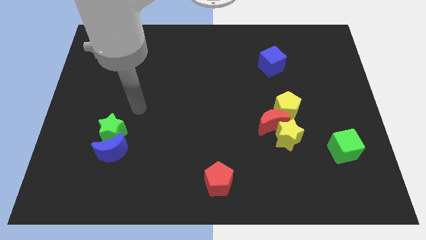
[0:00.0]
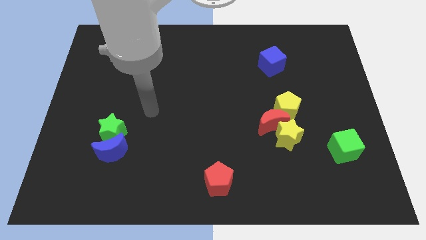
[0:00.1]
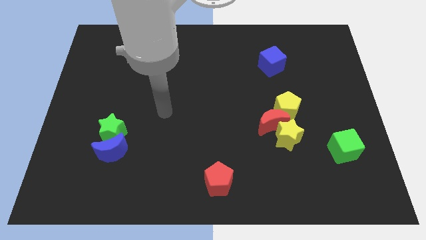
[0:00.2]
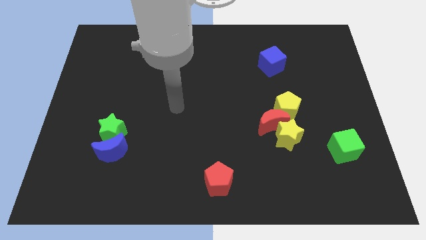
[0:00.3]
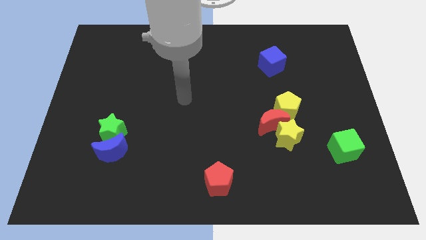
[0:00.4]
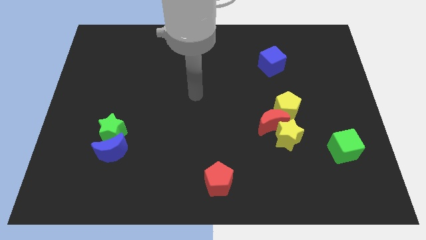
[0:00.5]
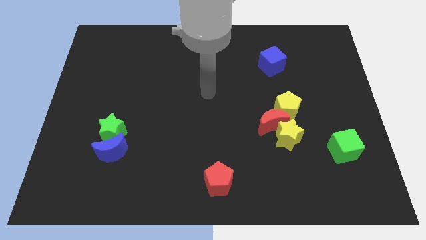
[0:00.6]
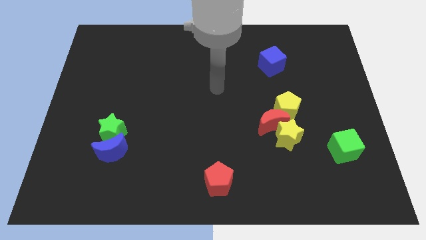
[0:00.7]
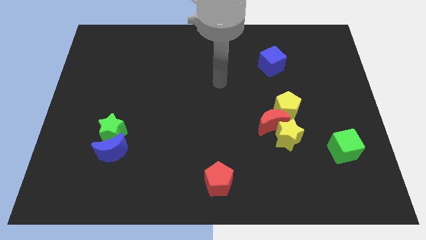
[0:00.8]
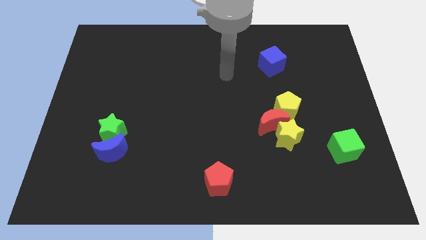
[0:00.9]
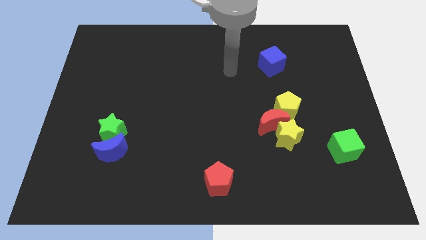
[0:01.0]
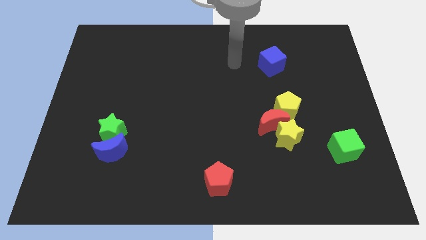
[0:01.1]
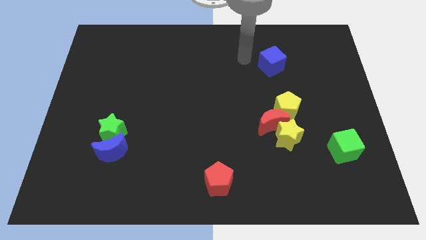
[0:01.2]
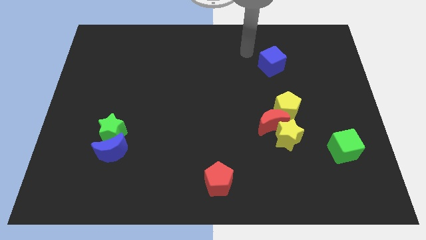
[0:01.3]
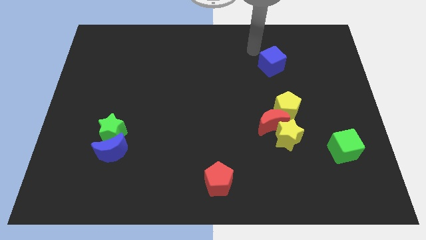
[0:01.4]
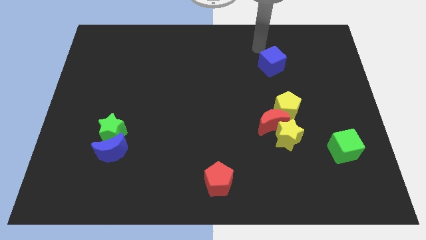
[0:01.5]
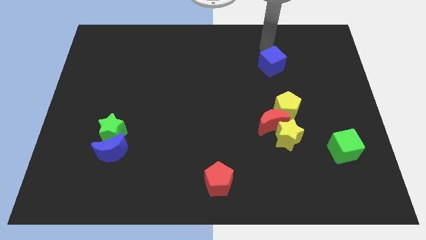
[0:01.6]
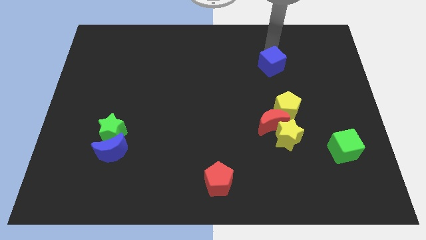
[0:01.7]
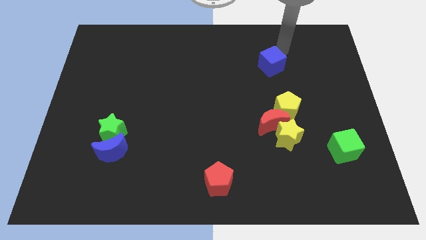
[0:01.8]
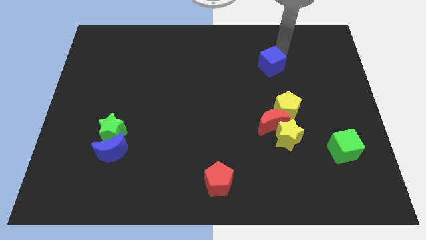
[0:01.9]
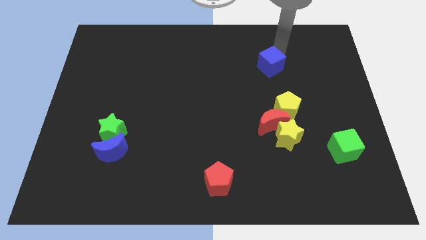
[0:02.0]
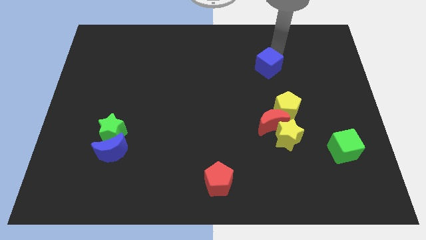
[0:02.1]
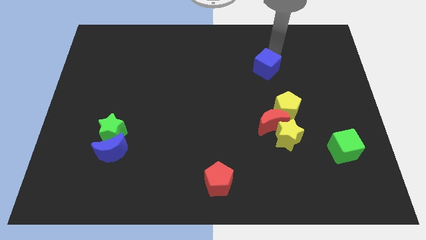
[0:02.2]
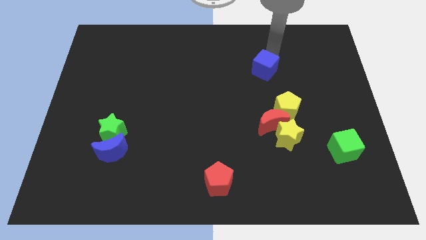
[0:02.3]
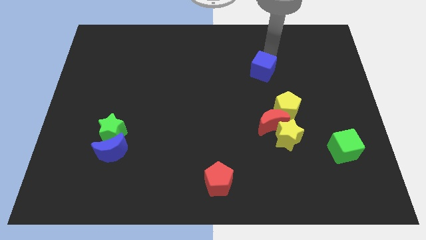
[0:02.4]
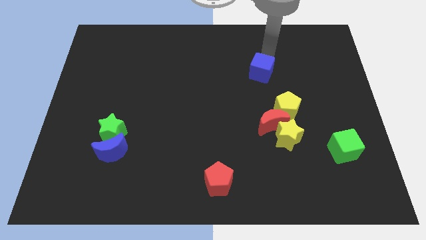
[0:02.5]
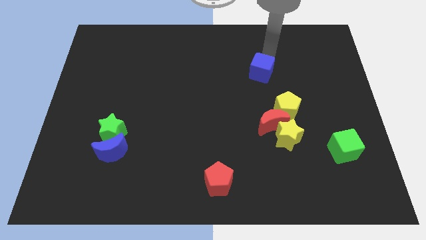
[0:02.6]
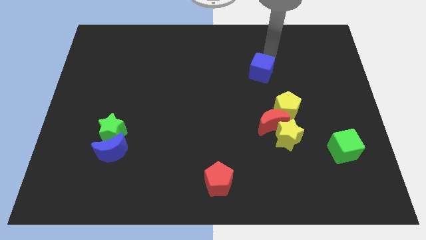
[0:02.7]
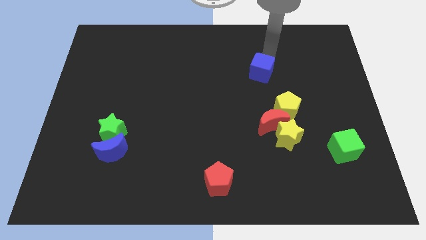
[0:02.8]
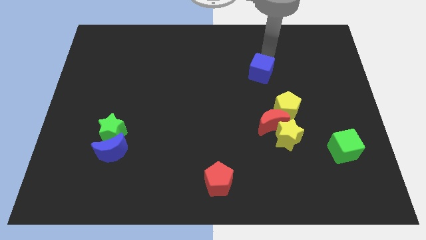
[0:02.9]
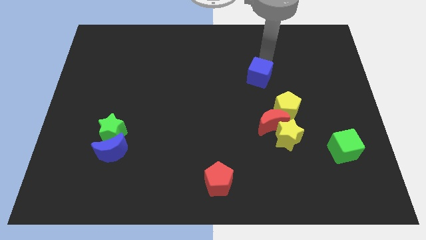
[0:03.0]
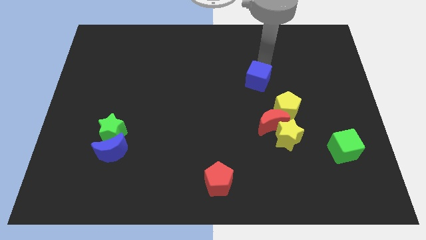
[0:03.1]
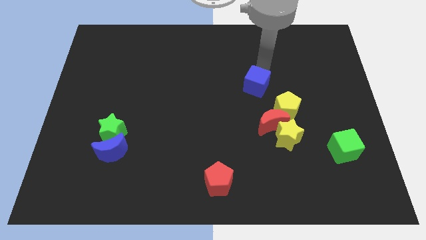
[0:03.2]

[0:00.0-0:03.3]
move the blue cube diagonally downwards and left somewhat

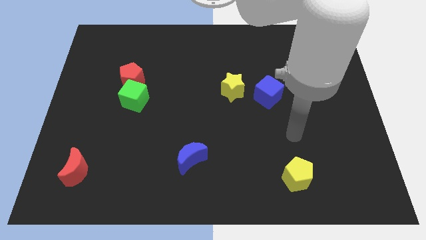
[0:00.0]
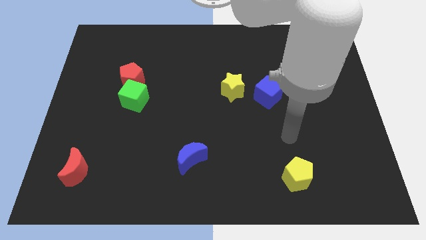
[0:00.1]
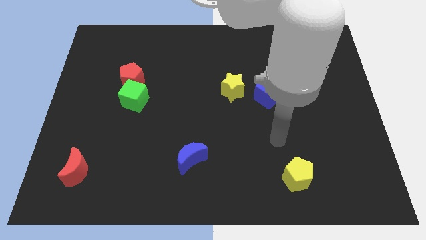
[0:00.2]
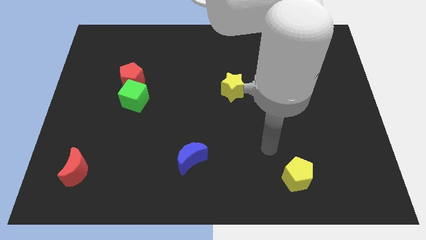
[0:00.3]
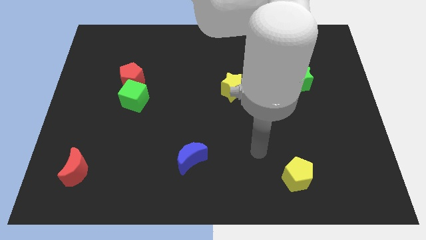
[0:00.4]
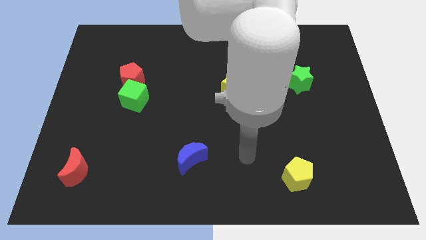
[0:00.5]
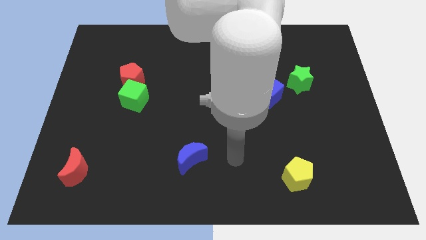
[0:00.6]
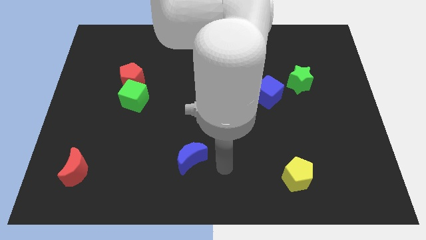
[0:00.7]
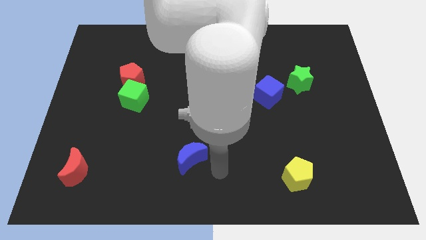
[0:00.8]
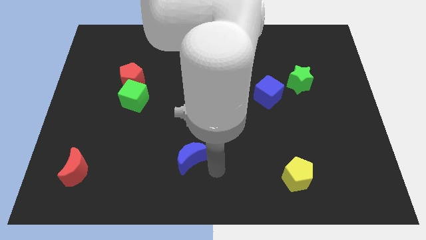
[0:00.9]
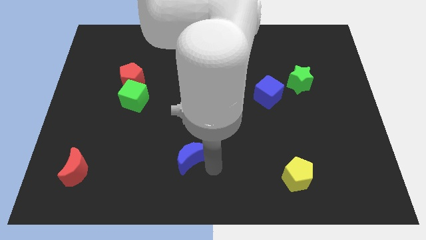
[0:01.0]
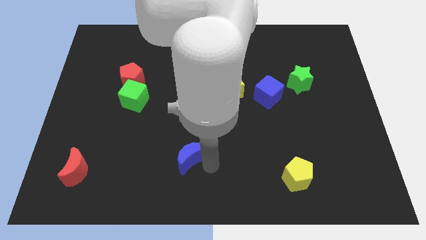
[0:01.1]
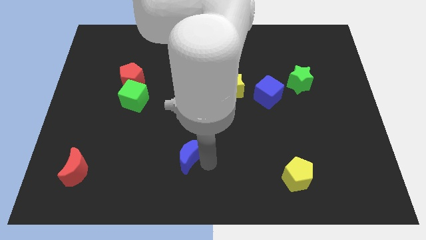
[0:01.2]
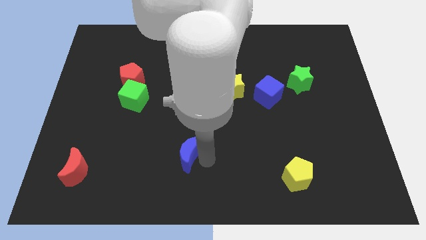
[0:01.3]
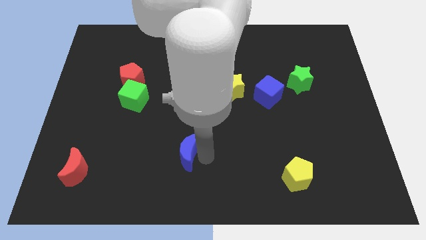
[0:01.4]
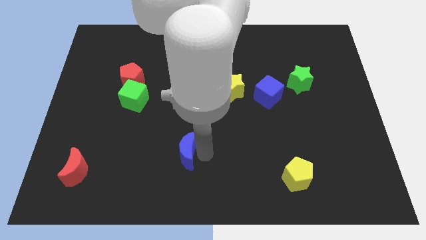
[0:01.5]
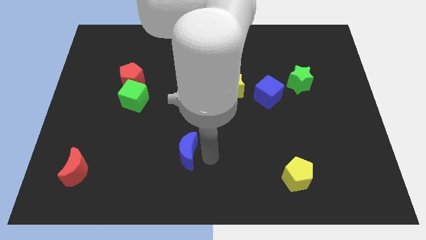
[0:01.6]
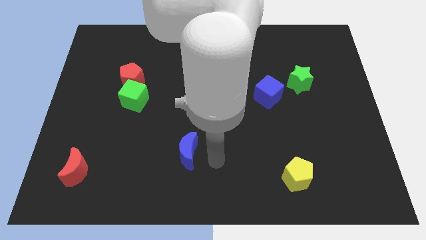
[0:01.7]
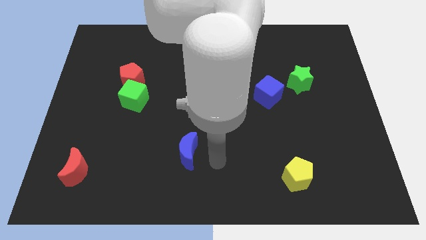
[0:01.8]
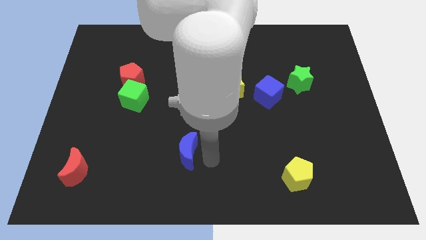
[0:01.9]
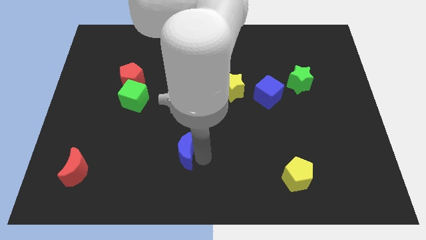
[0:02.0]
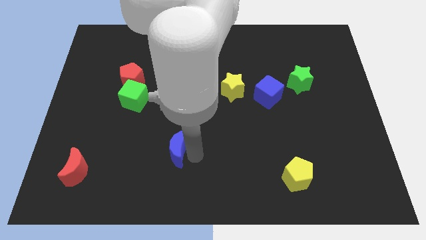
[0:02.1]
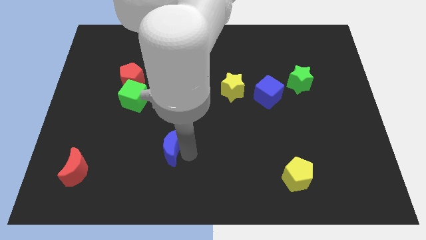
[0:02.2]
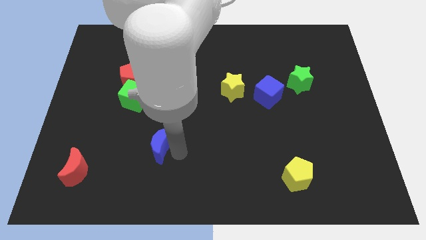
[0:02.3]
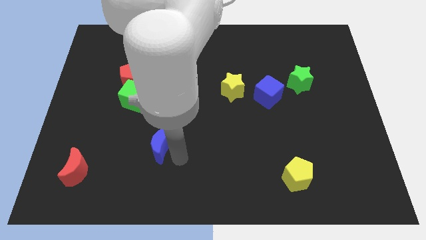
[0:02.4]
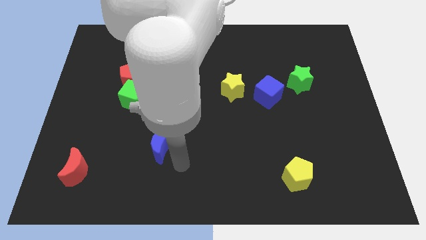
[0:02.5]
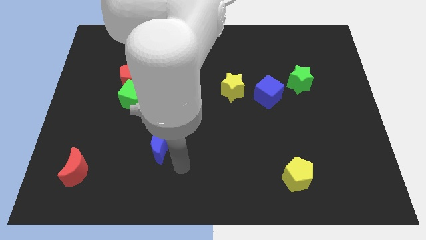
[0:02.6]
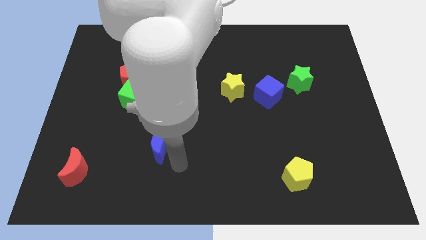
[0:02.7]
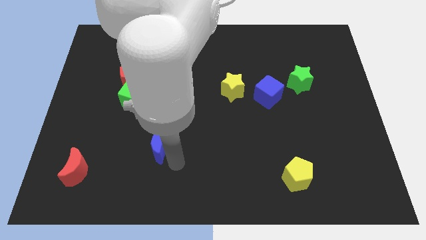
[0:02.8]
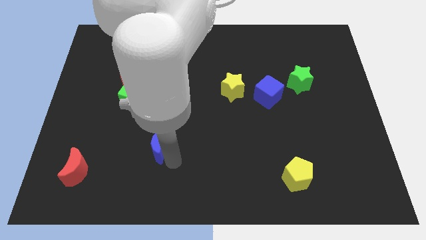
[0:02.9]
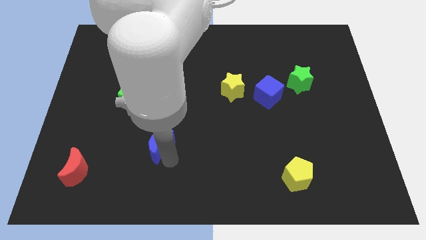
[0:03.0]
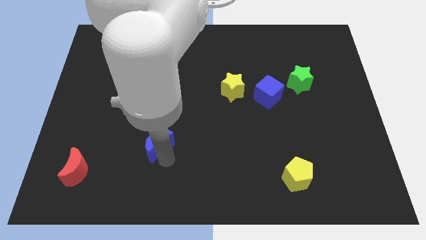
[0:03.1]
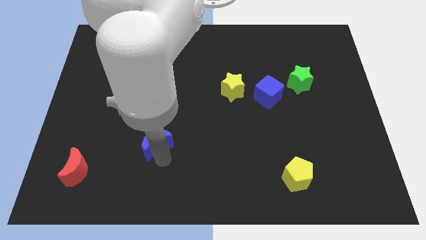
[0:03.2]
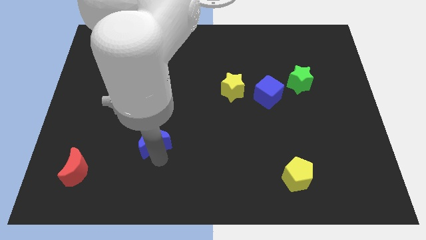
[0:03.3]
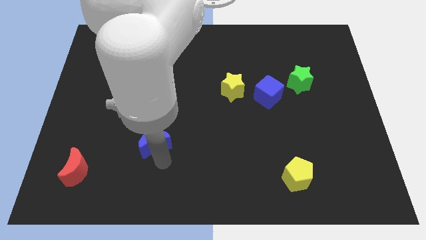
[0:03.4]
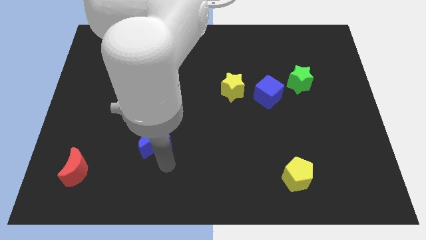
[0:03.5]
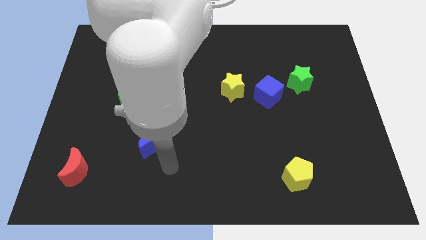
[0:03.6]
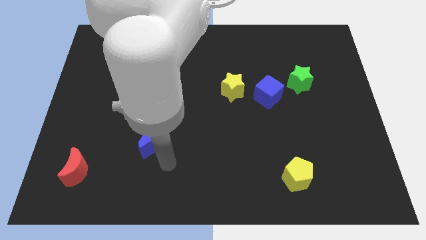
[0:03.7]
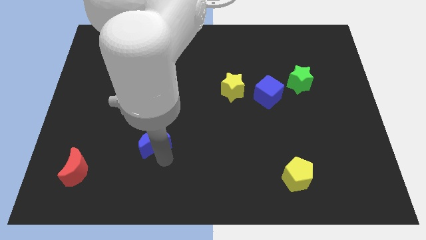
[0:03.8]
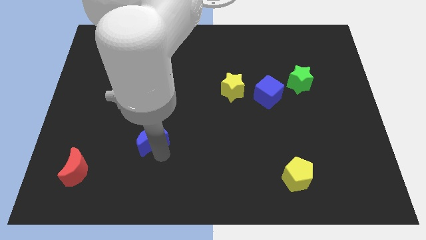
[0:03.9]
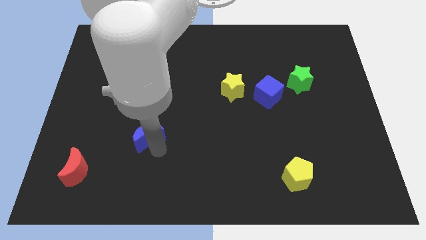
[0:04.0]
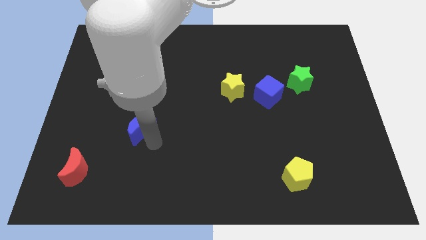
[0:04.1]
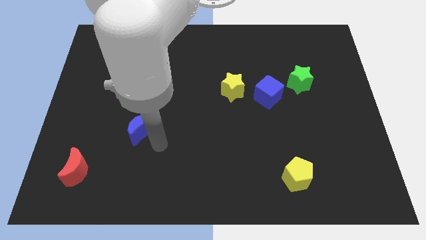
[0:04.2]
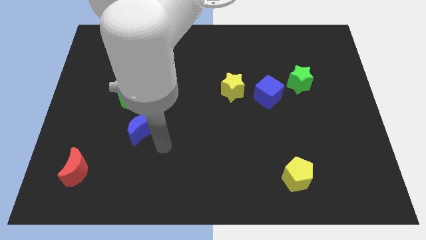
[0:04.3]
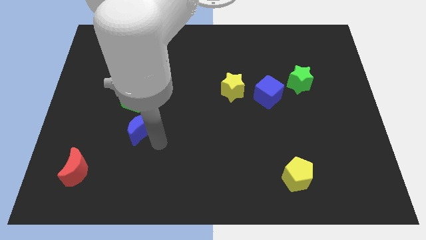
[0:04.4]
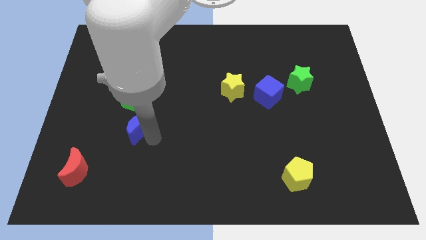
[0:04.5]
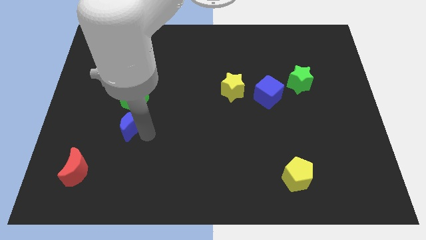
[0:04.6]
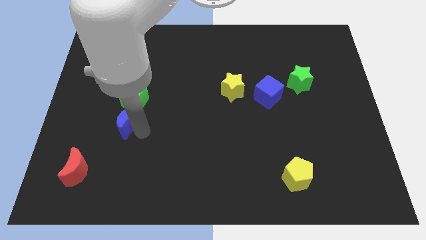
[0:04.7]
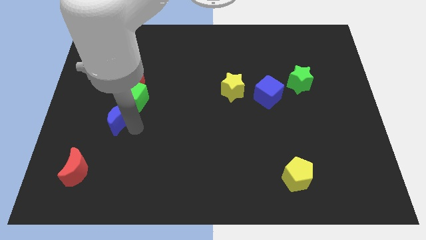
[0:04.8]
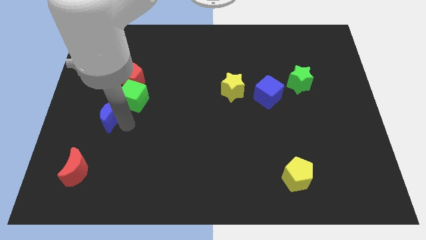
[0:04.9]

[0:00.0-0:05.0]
move the blue moon up and then left

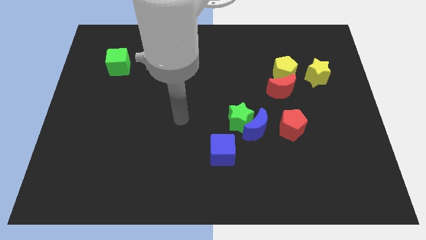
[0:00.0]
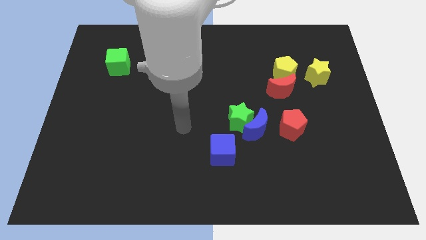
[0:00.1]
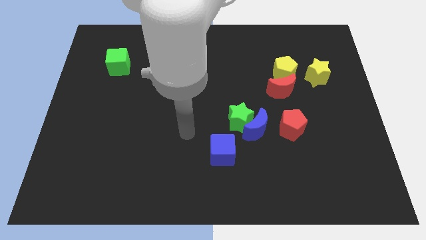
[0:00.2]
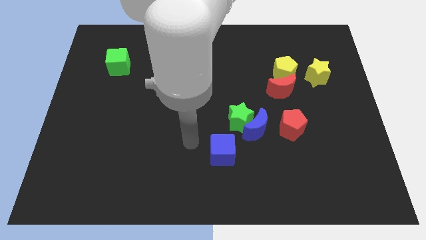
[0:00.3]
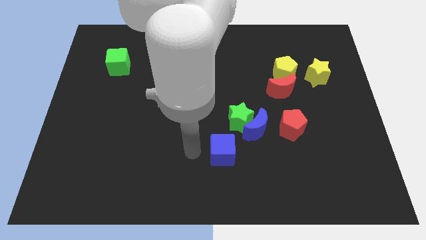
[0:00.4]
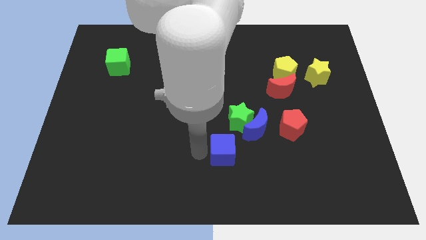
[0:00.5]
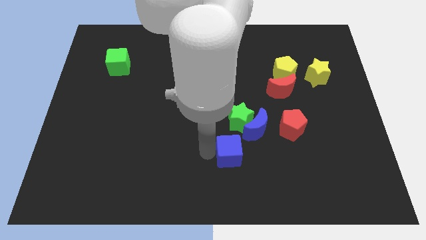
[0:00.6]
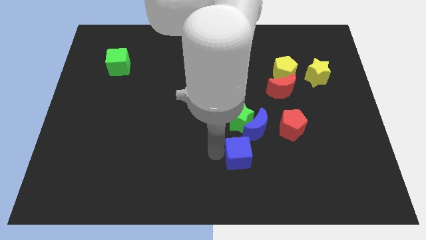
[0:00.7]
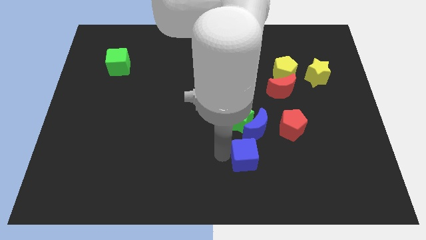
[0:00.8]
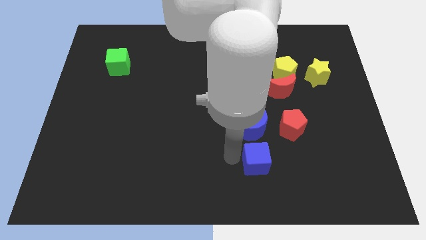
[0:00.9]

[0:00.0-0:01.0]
slightly slide the blue cube to the right
